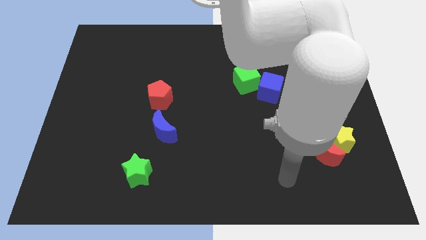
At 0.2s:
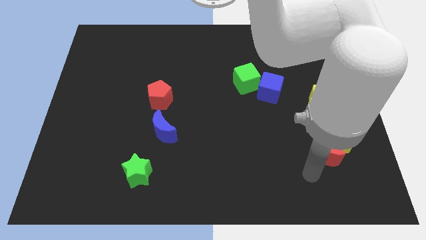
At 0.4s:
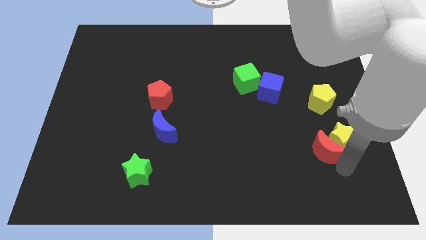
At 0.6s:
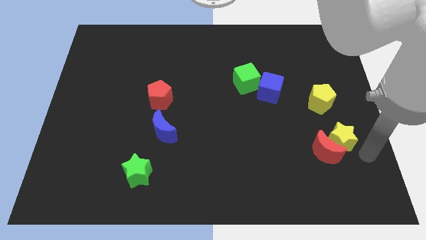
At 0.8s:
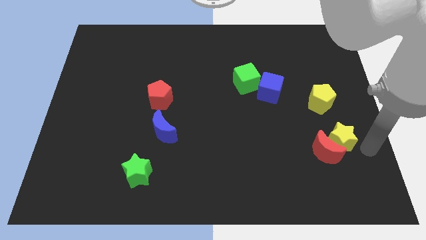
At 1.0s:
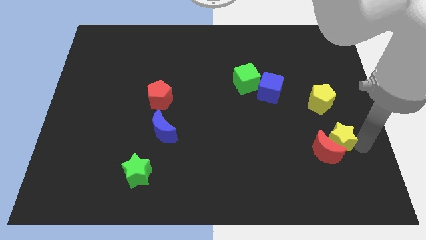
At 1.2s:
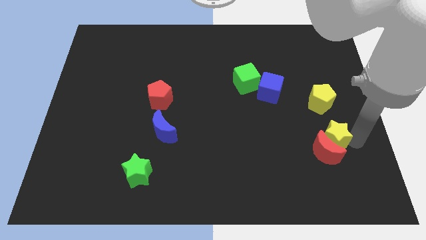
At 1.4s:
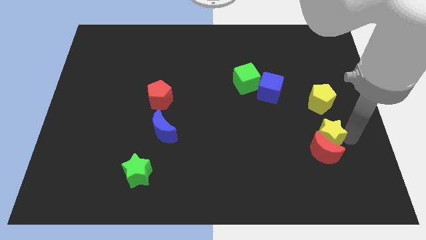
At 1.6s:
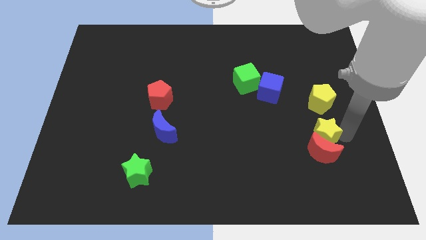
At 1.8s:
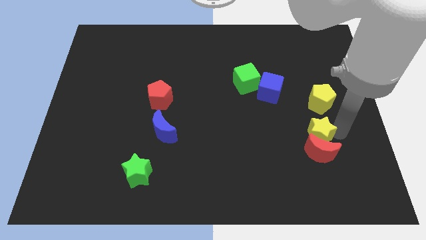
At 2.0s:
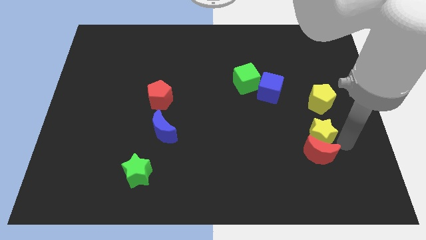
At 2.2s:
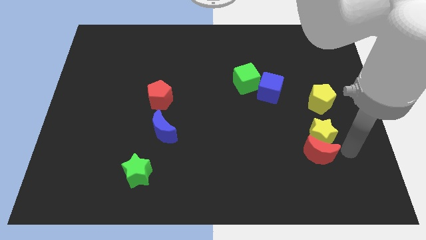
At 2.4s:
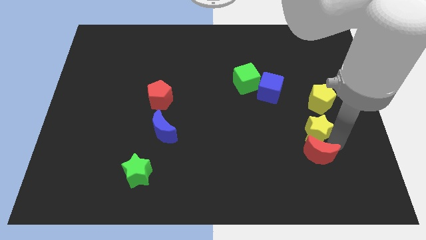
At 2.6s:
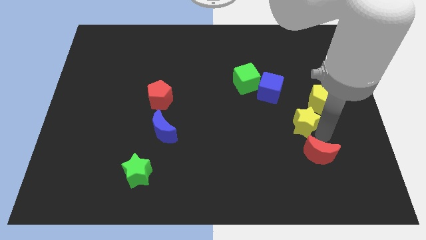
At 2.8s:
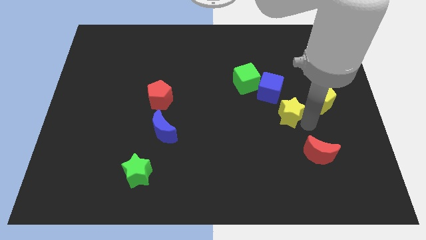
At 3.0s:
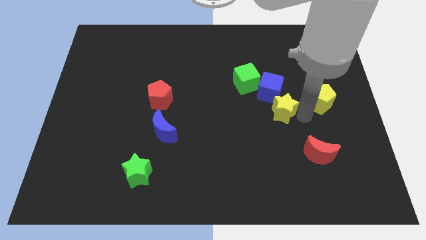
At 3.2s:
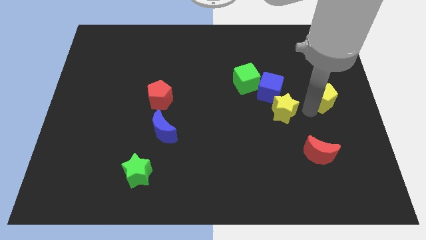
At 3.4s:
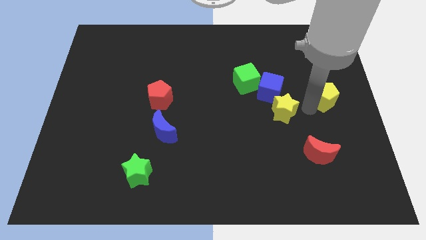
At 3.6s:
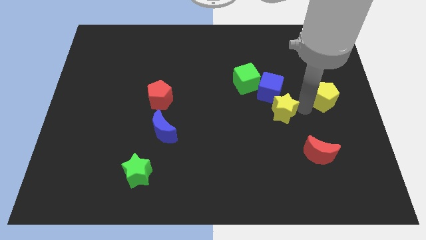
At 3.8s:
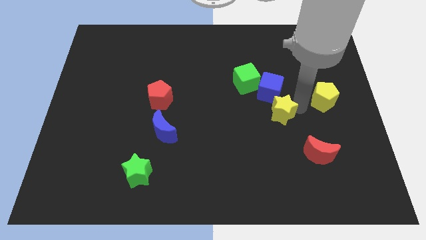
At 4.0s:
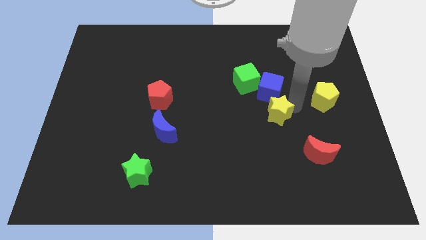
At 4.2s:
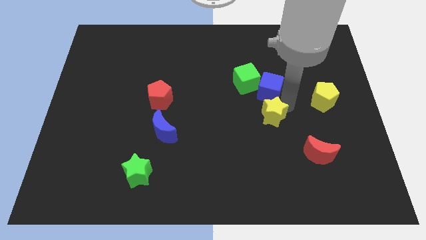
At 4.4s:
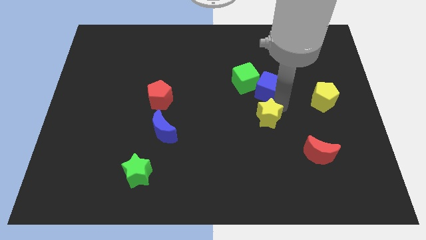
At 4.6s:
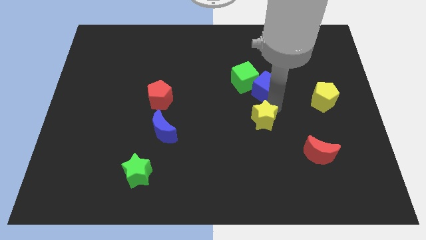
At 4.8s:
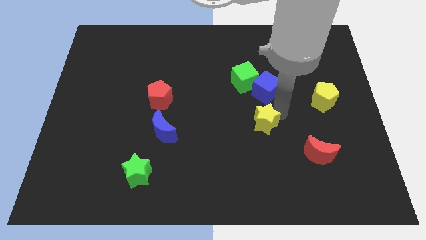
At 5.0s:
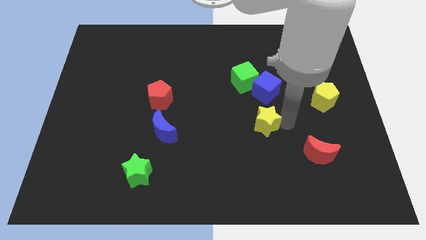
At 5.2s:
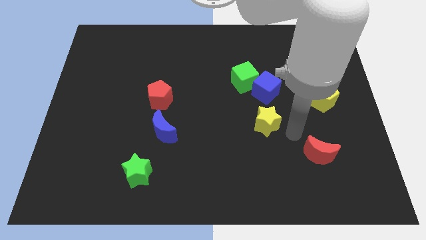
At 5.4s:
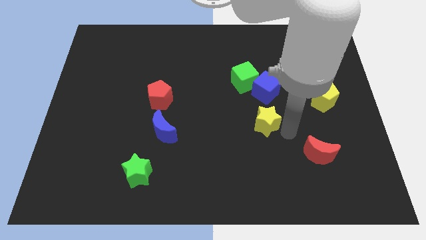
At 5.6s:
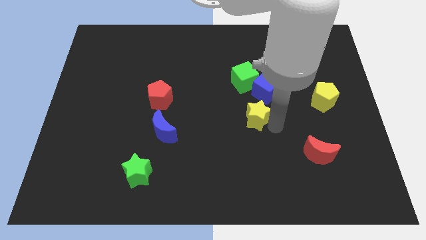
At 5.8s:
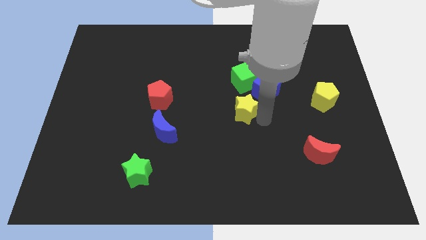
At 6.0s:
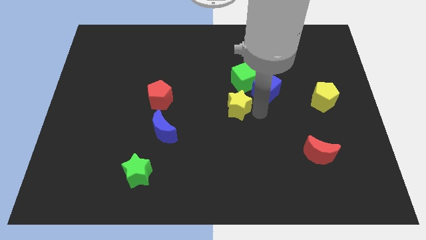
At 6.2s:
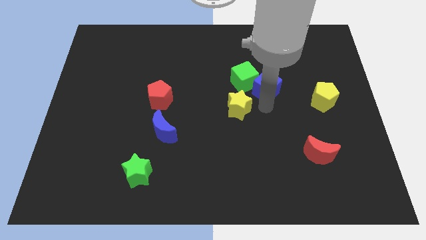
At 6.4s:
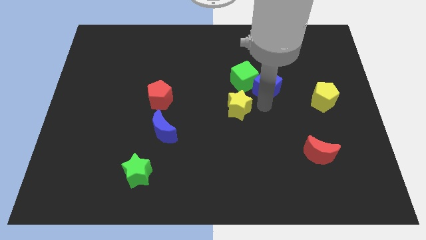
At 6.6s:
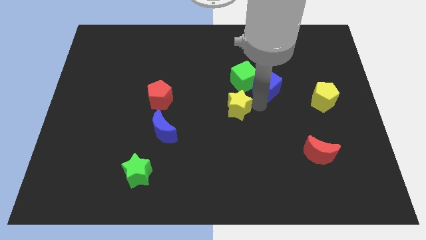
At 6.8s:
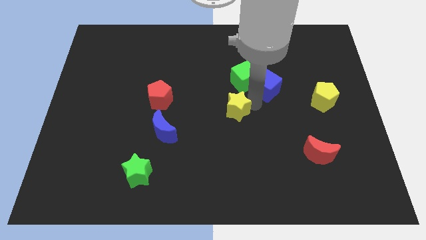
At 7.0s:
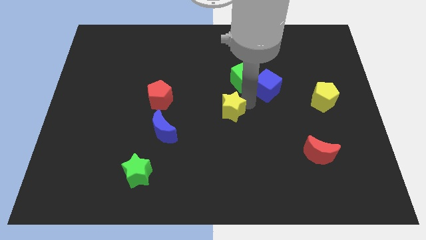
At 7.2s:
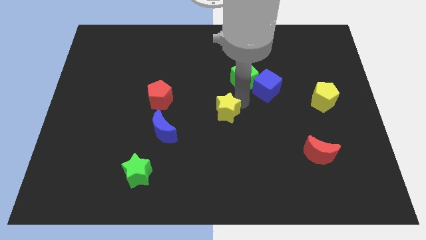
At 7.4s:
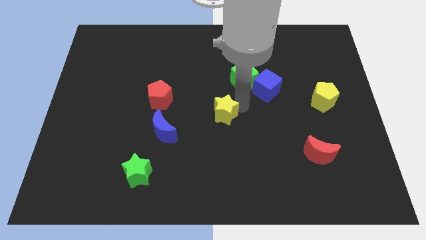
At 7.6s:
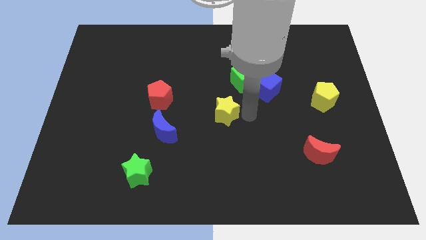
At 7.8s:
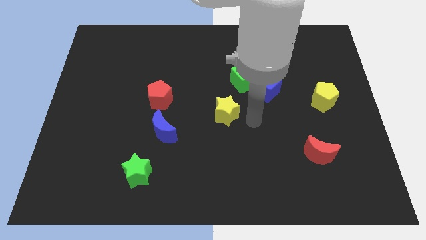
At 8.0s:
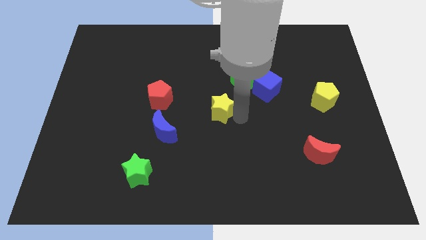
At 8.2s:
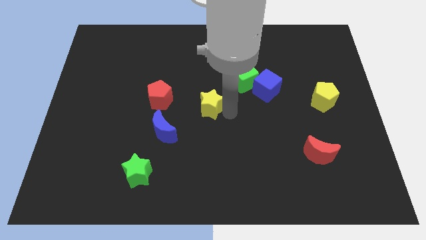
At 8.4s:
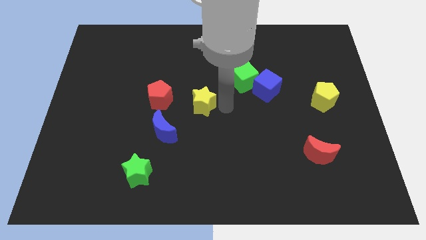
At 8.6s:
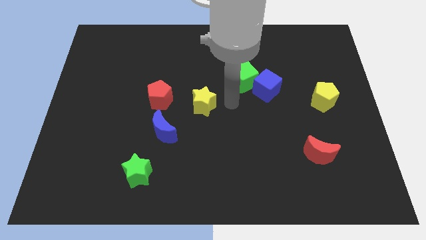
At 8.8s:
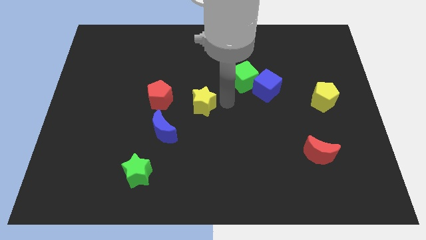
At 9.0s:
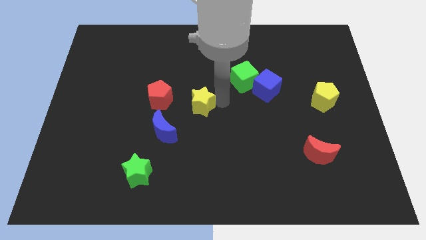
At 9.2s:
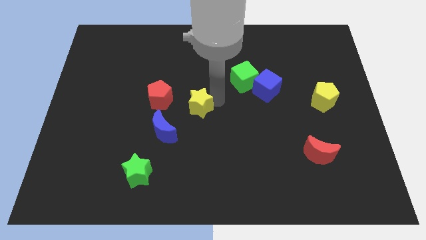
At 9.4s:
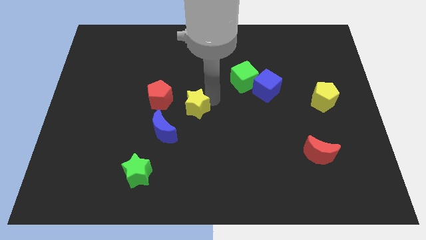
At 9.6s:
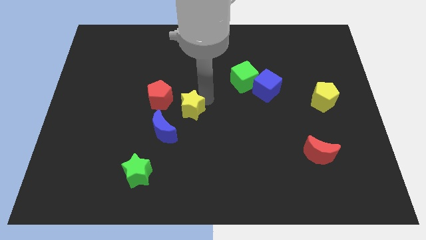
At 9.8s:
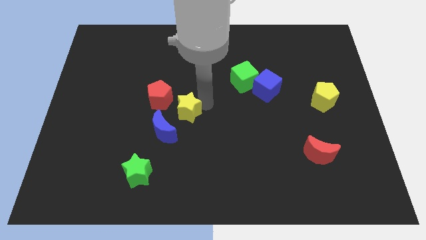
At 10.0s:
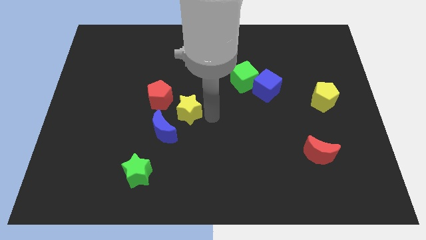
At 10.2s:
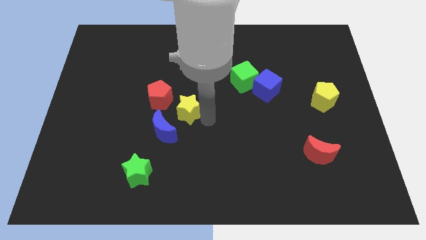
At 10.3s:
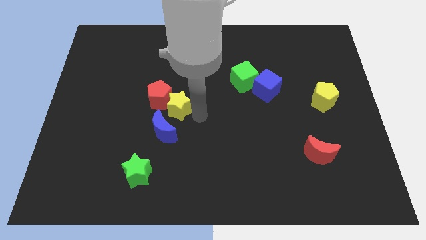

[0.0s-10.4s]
push the yellow star to the red pentagon

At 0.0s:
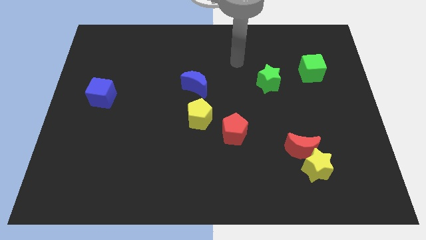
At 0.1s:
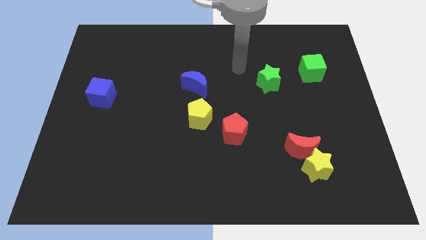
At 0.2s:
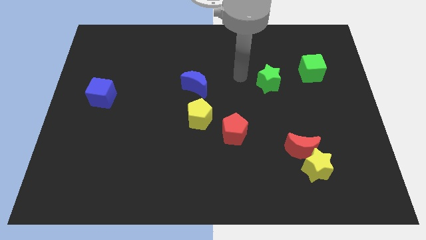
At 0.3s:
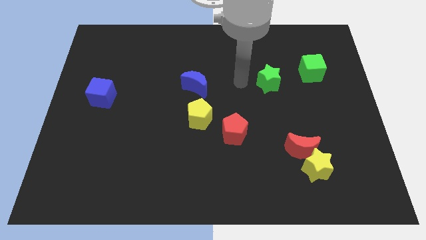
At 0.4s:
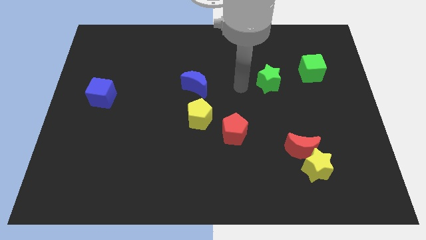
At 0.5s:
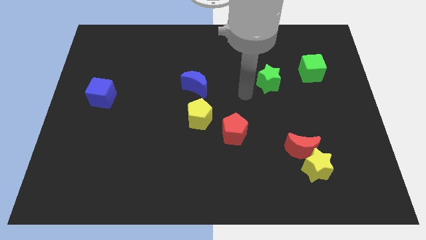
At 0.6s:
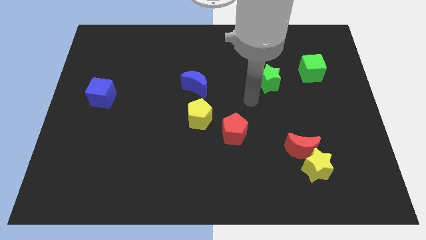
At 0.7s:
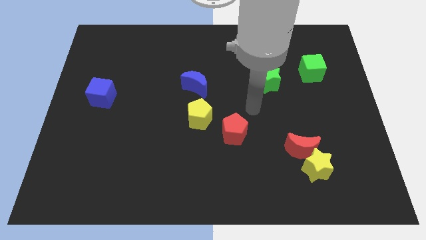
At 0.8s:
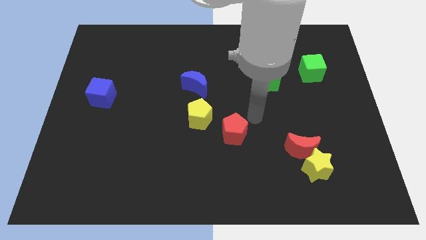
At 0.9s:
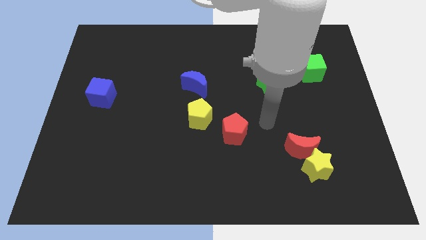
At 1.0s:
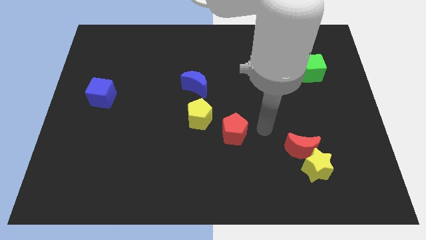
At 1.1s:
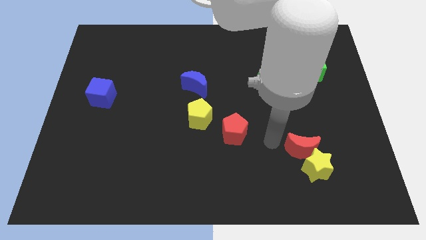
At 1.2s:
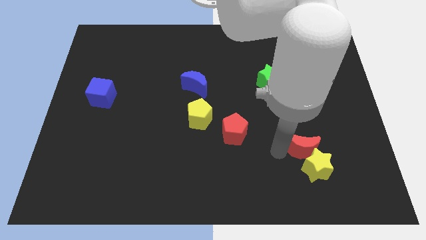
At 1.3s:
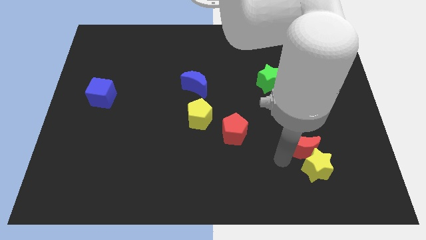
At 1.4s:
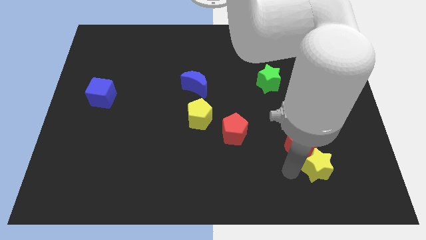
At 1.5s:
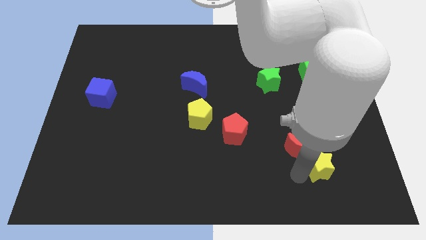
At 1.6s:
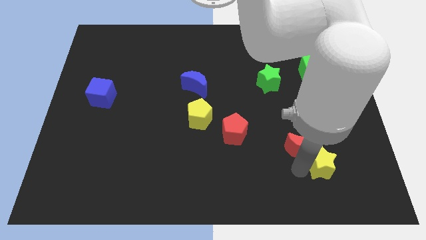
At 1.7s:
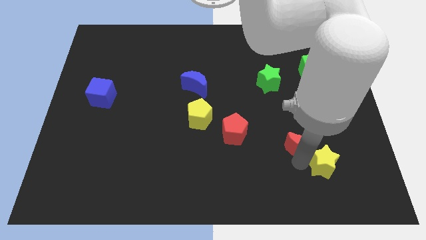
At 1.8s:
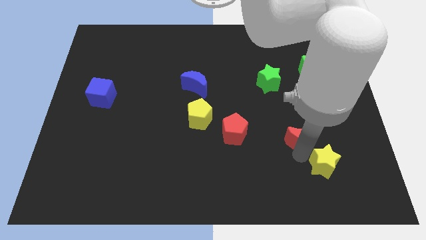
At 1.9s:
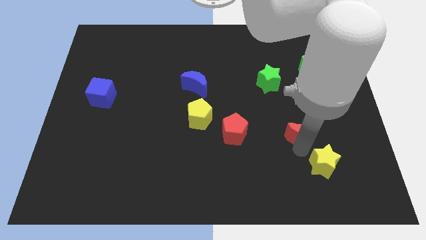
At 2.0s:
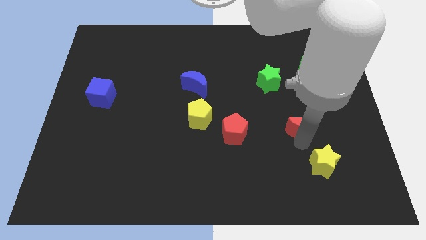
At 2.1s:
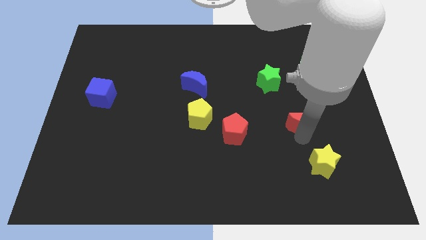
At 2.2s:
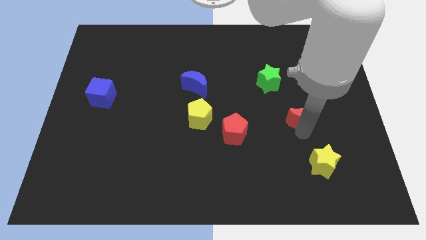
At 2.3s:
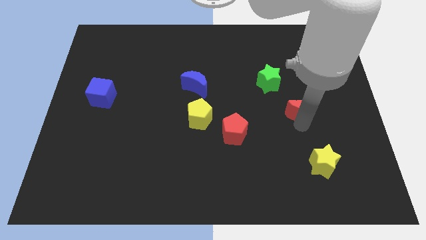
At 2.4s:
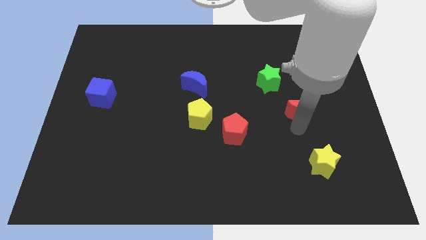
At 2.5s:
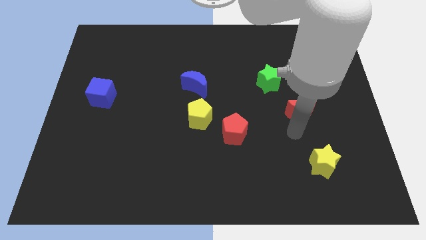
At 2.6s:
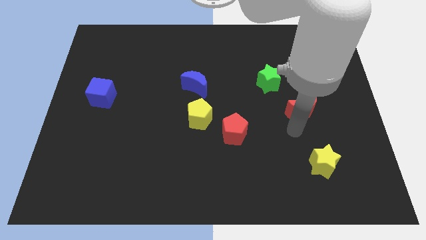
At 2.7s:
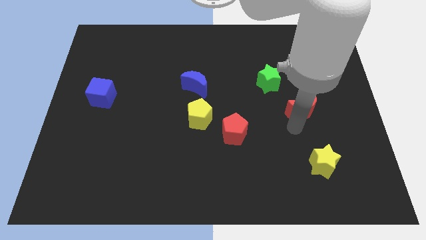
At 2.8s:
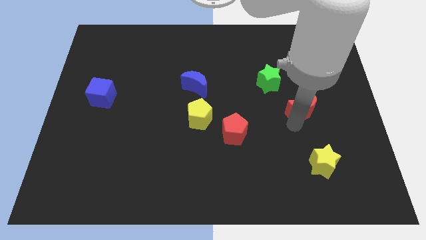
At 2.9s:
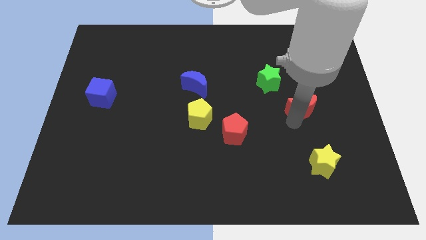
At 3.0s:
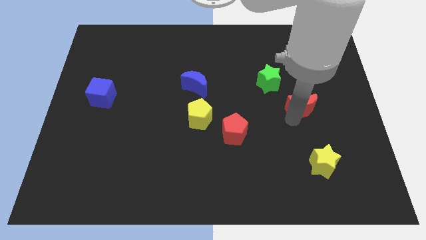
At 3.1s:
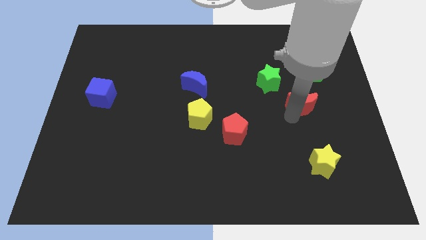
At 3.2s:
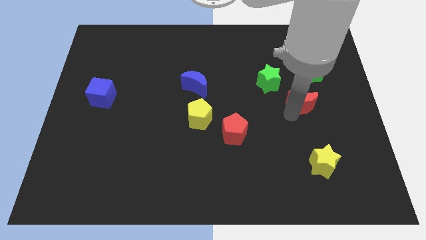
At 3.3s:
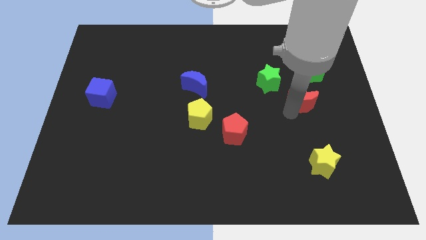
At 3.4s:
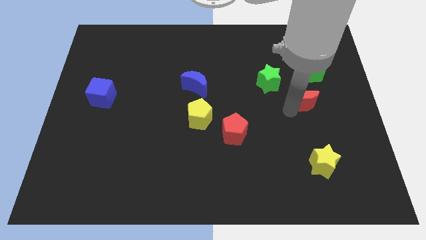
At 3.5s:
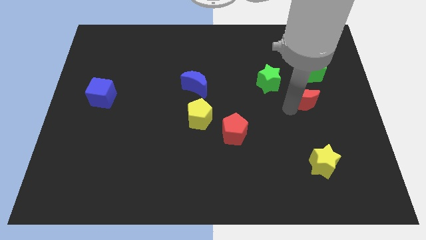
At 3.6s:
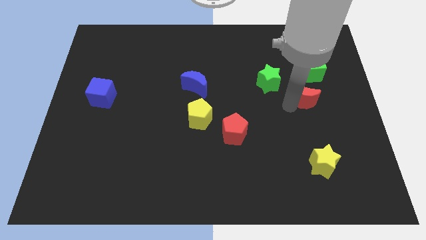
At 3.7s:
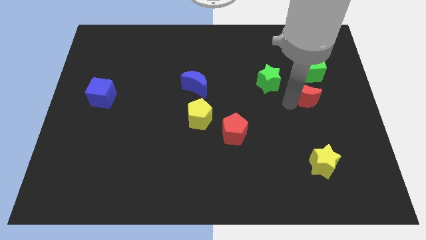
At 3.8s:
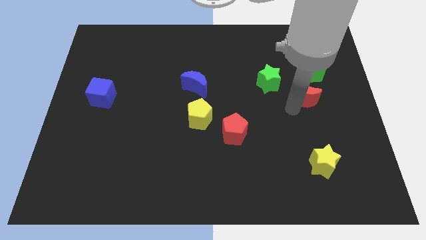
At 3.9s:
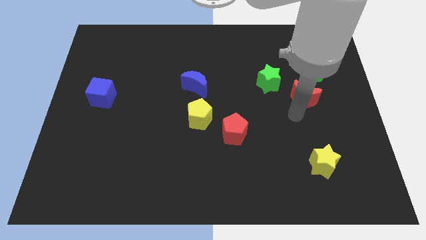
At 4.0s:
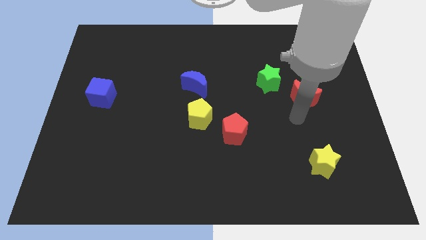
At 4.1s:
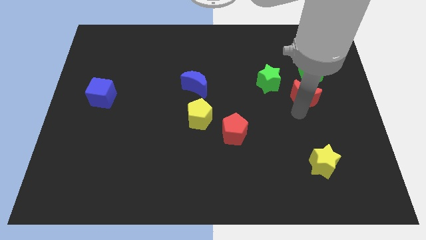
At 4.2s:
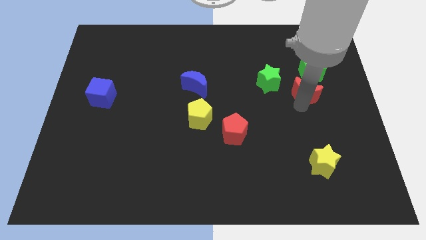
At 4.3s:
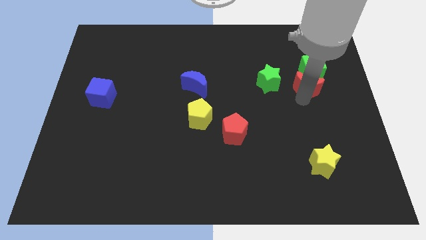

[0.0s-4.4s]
move the red moon close to the green cube
